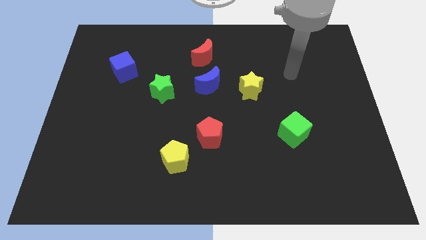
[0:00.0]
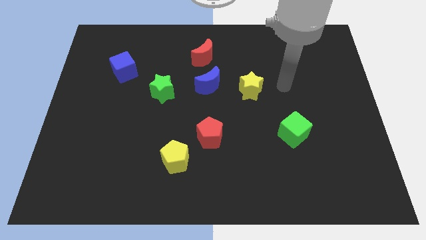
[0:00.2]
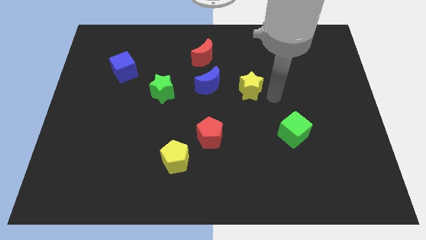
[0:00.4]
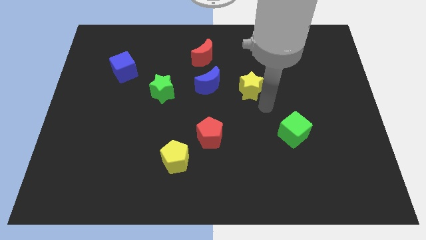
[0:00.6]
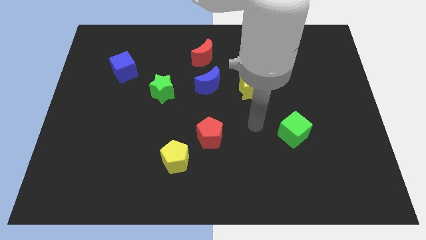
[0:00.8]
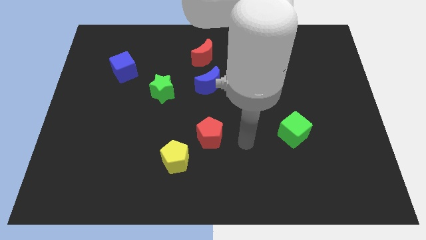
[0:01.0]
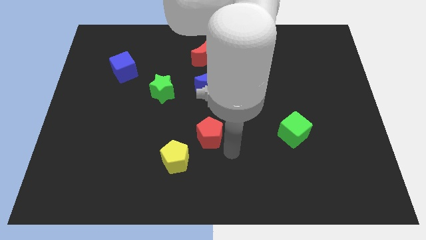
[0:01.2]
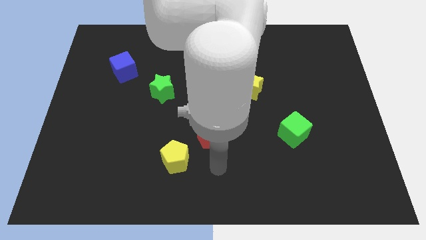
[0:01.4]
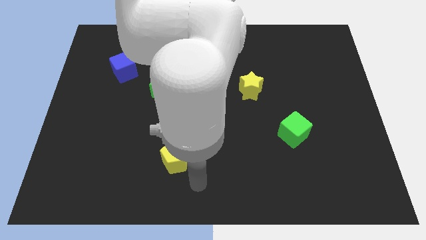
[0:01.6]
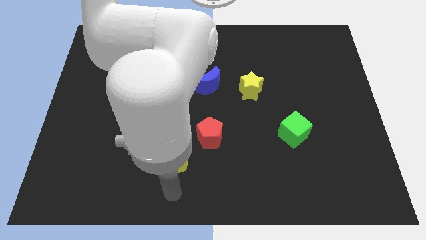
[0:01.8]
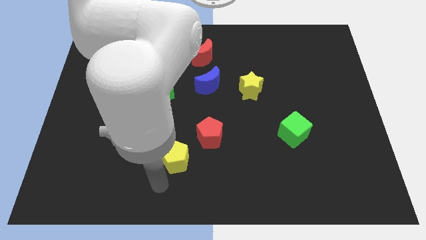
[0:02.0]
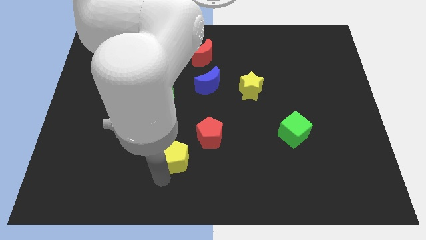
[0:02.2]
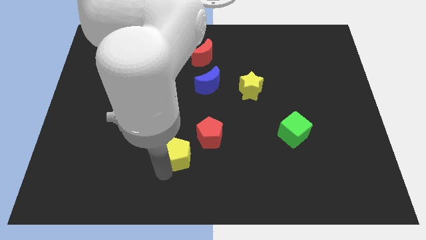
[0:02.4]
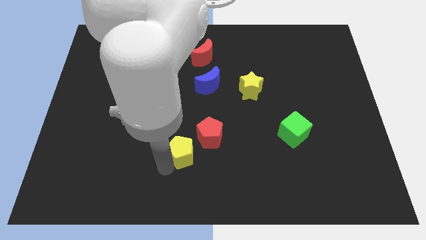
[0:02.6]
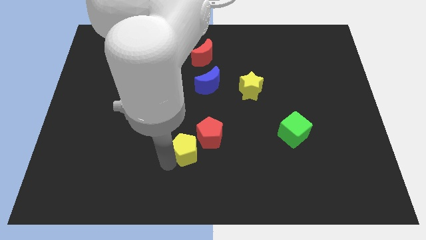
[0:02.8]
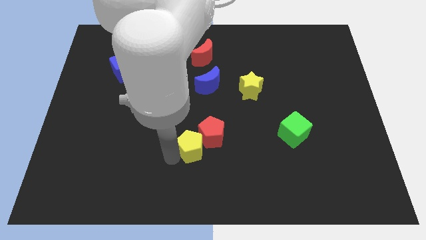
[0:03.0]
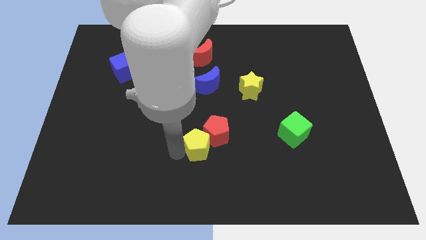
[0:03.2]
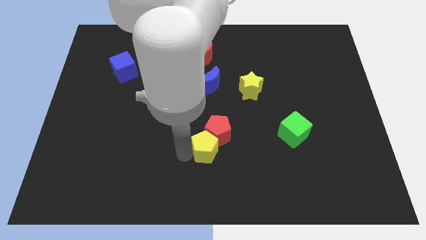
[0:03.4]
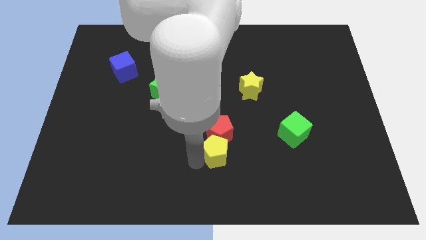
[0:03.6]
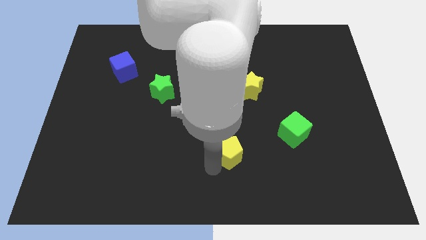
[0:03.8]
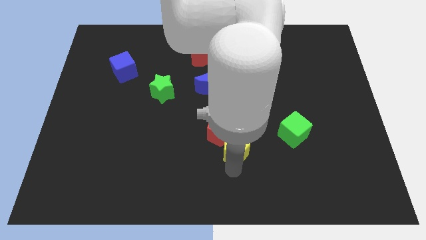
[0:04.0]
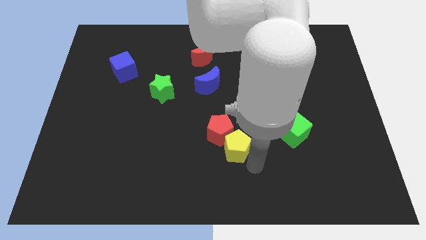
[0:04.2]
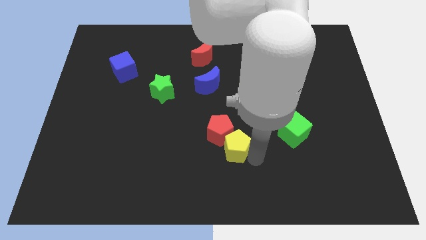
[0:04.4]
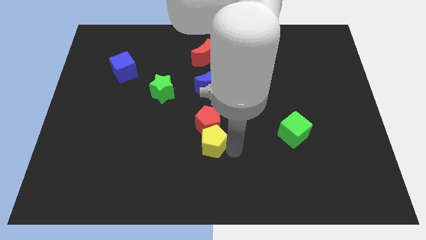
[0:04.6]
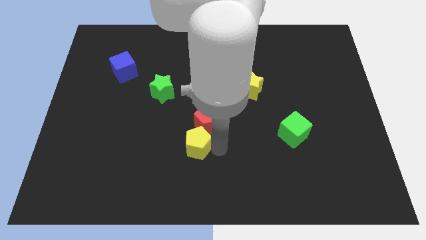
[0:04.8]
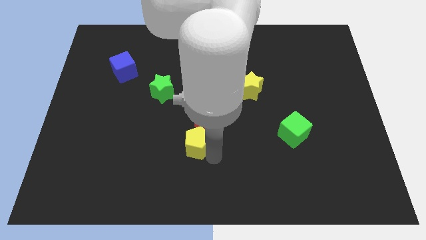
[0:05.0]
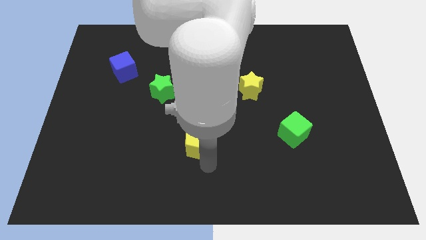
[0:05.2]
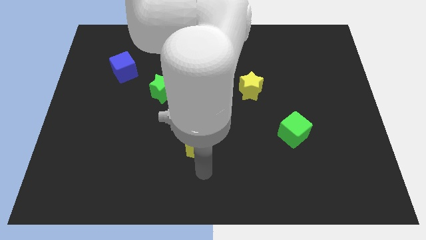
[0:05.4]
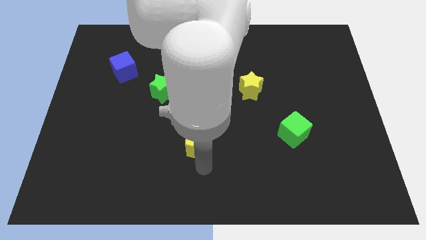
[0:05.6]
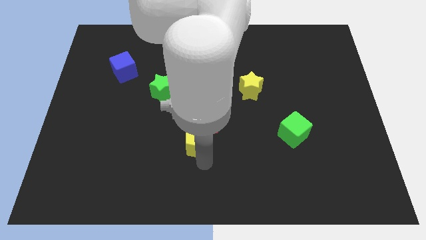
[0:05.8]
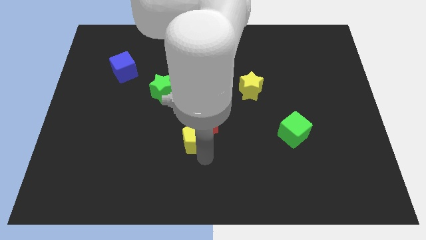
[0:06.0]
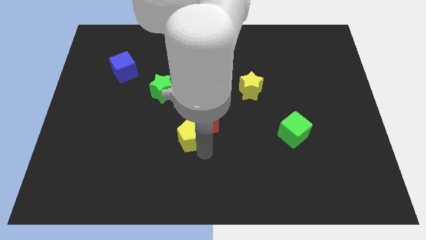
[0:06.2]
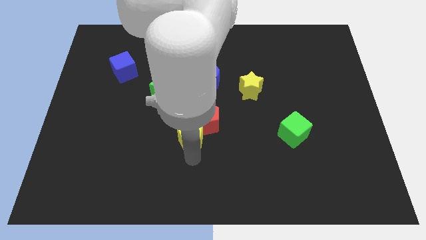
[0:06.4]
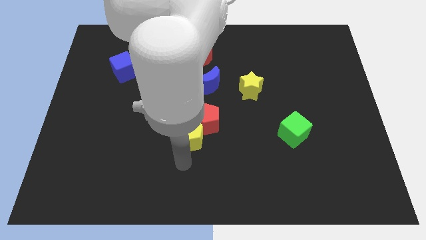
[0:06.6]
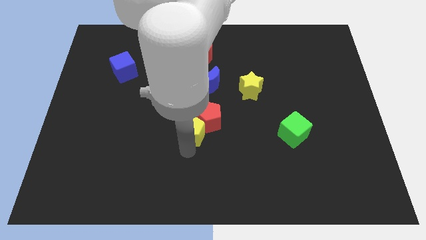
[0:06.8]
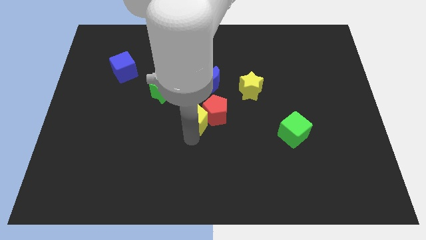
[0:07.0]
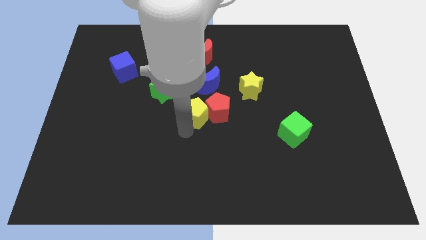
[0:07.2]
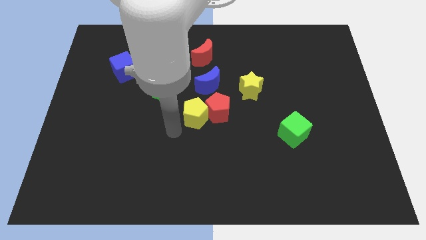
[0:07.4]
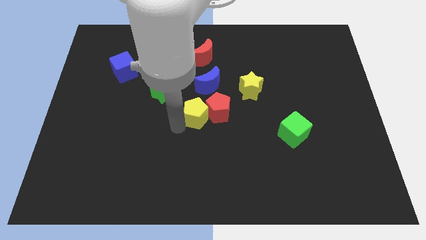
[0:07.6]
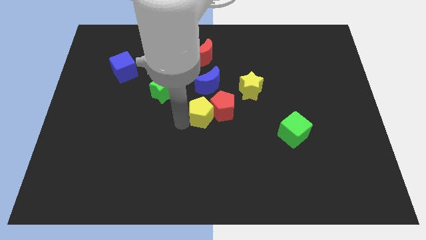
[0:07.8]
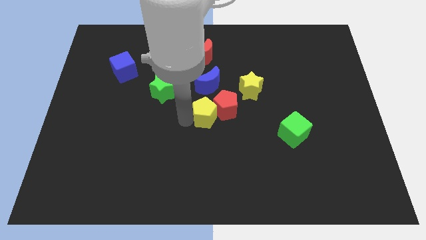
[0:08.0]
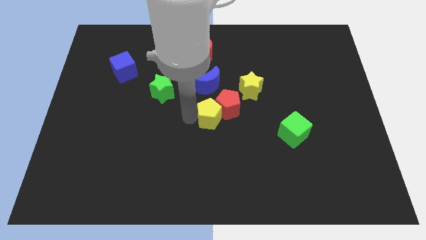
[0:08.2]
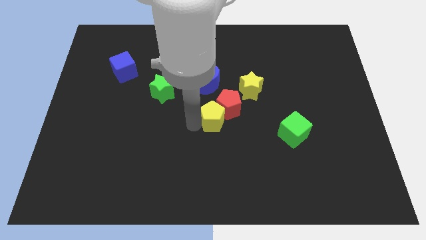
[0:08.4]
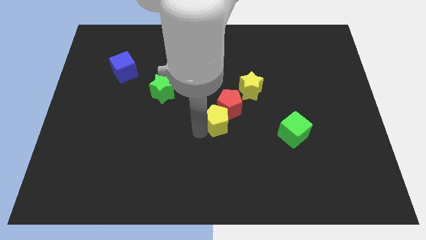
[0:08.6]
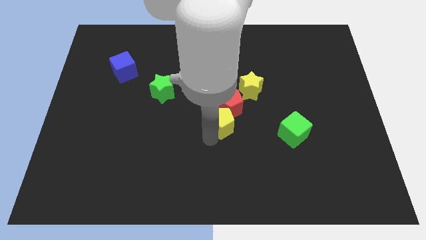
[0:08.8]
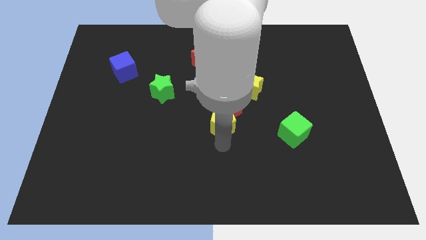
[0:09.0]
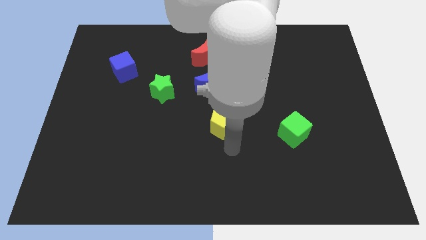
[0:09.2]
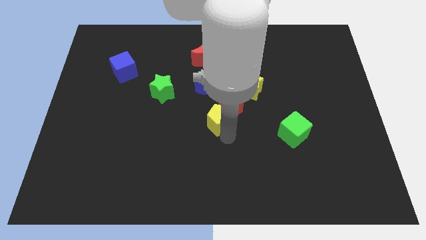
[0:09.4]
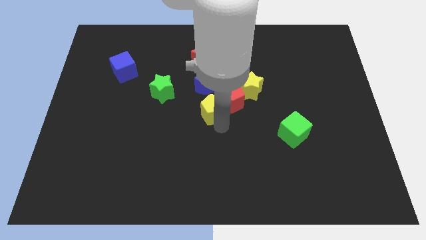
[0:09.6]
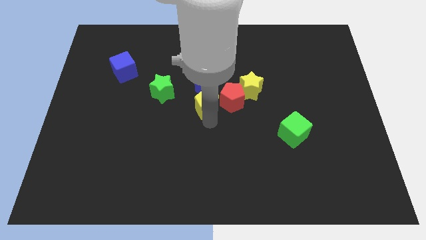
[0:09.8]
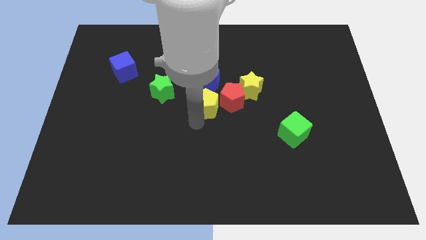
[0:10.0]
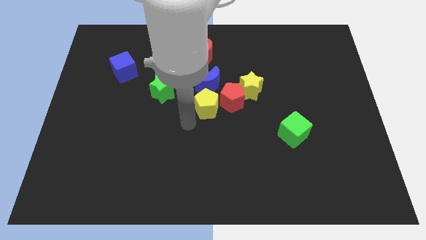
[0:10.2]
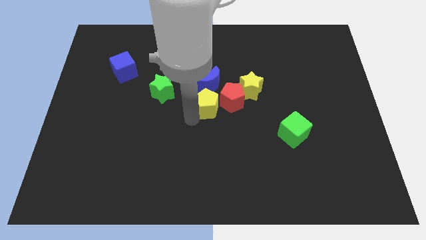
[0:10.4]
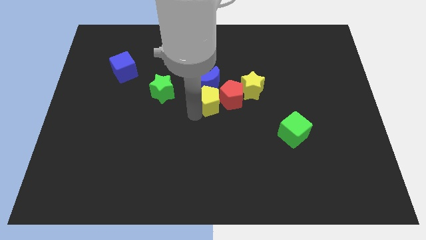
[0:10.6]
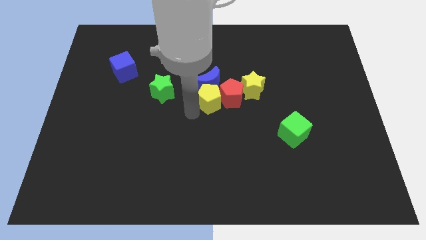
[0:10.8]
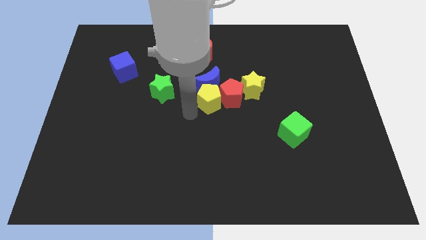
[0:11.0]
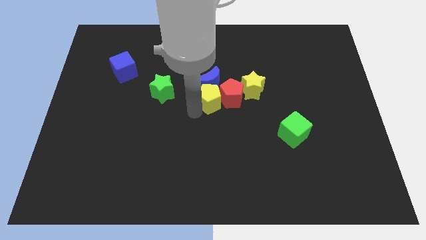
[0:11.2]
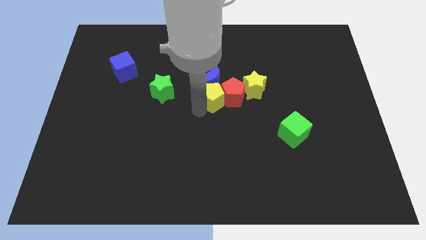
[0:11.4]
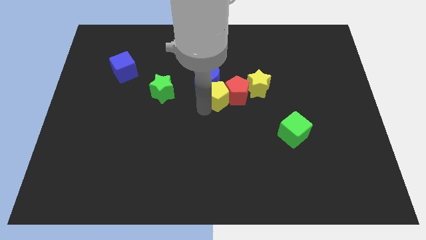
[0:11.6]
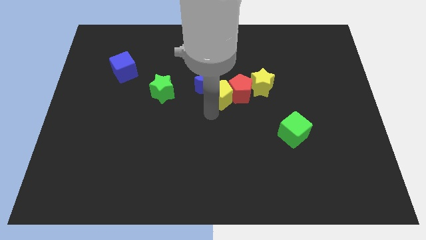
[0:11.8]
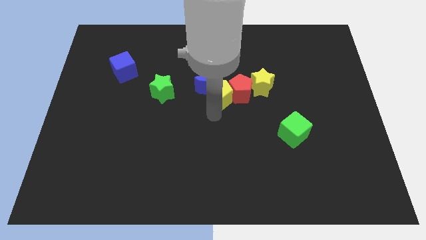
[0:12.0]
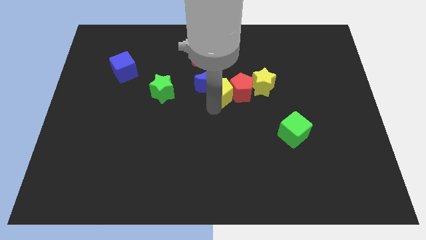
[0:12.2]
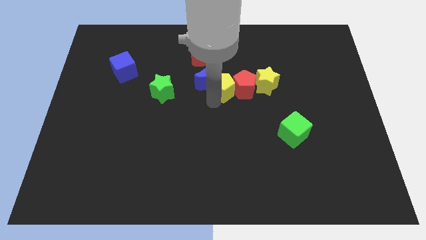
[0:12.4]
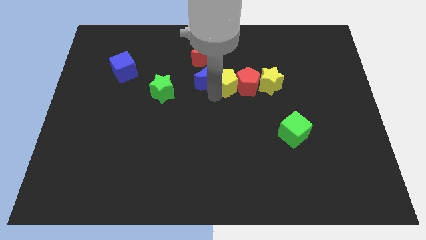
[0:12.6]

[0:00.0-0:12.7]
put the yellow pentagon to the top right side of the blue moon

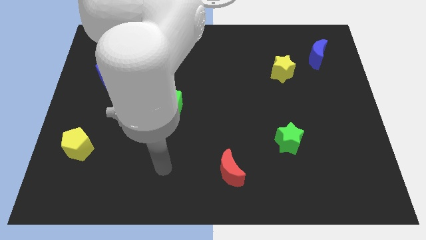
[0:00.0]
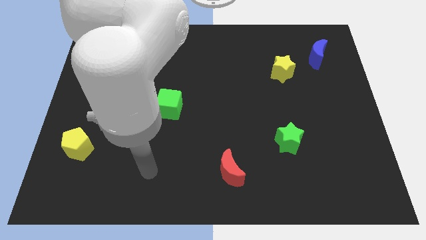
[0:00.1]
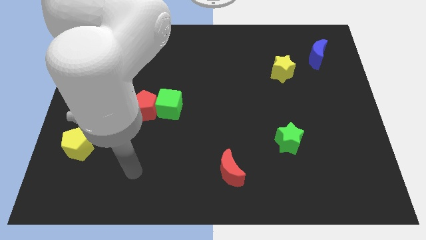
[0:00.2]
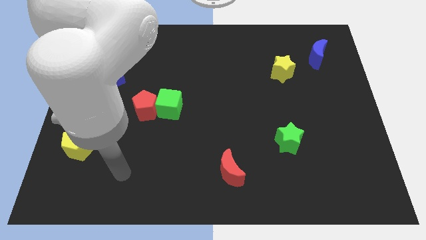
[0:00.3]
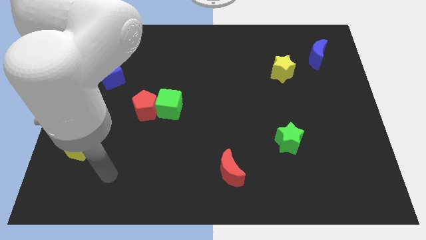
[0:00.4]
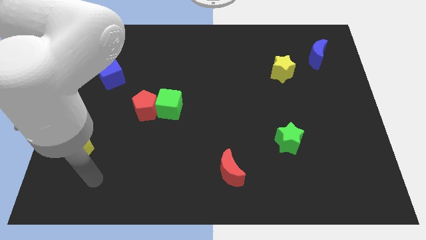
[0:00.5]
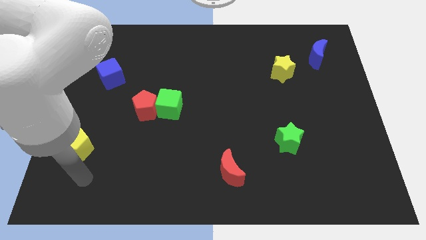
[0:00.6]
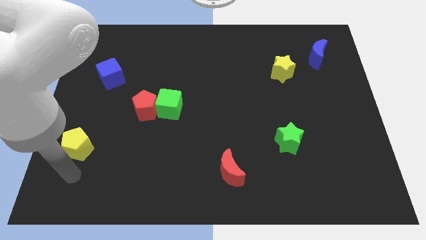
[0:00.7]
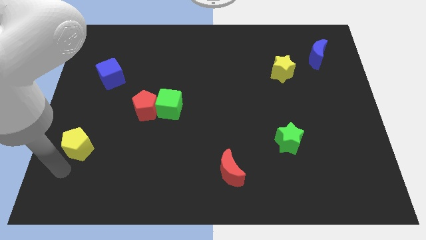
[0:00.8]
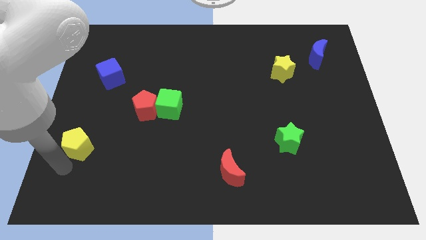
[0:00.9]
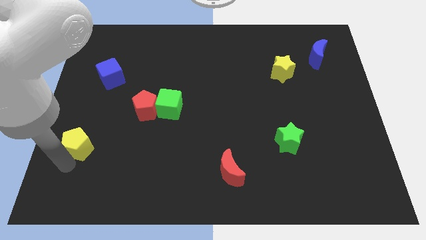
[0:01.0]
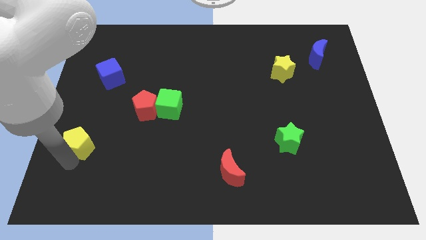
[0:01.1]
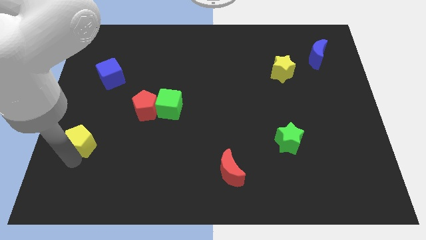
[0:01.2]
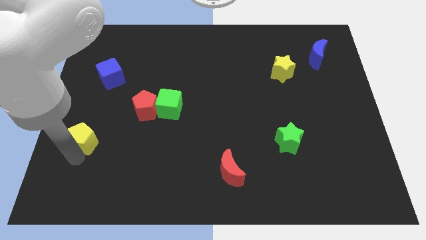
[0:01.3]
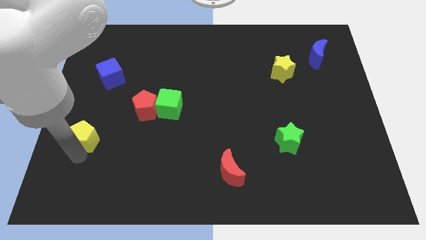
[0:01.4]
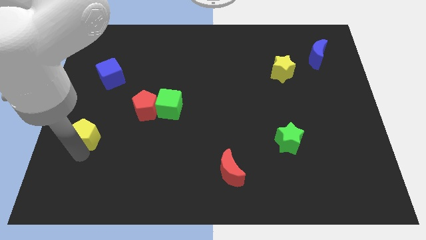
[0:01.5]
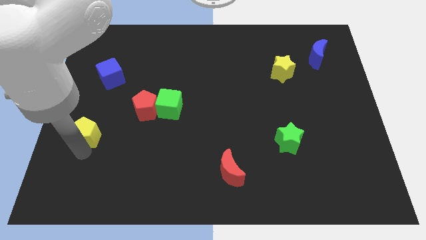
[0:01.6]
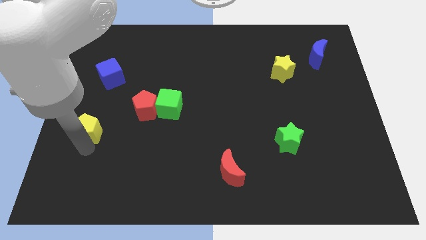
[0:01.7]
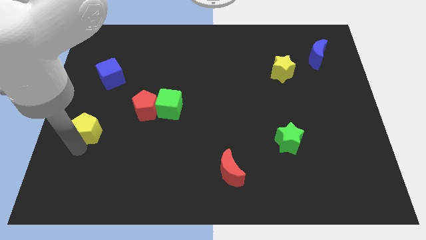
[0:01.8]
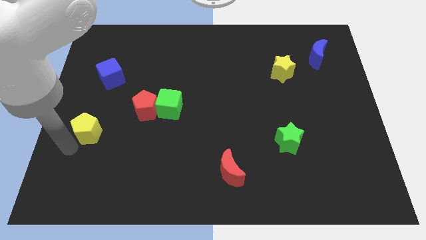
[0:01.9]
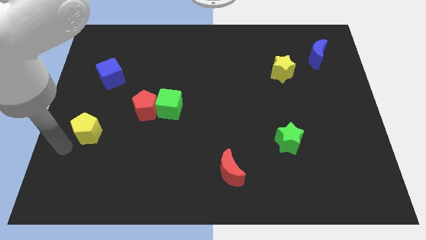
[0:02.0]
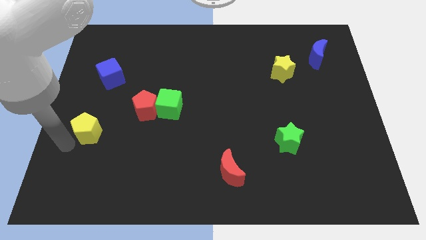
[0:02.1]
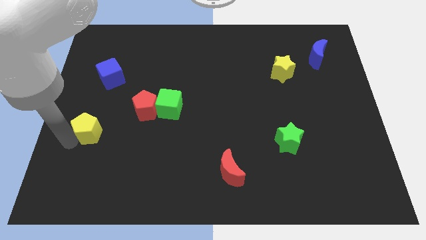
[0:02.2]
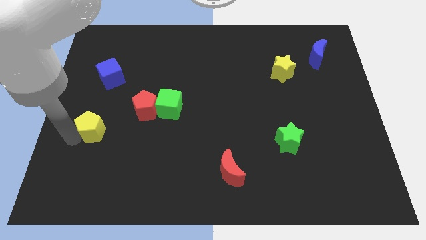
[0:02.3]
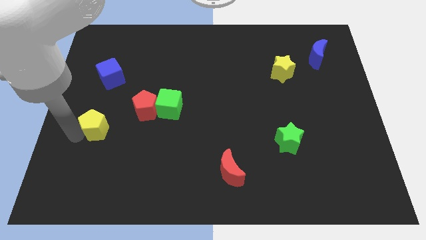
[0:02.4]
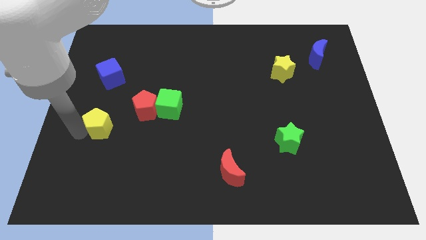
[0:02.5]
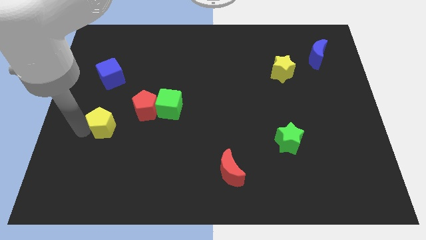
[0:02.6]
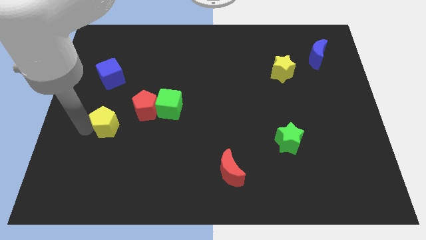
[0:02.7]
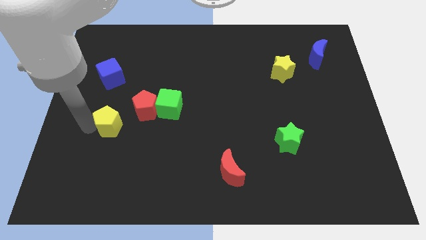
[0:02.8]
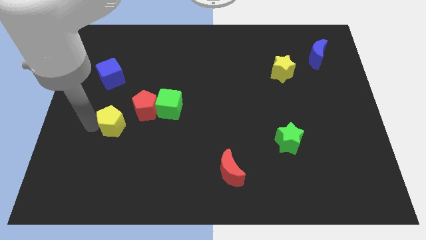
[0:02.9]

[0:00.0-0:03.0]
slide the yellow pentagon to the left of the green cube
